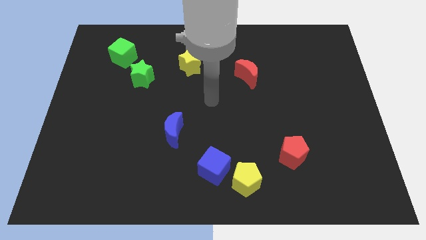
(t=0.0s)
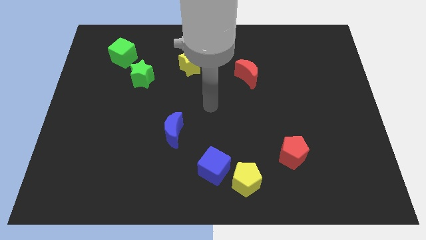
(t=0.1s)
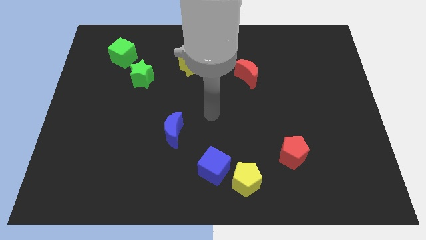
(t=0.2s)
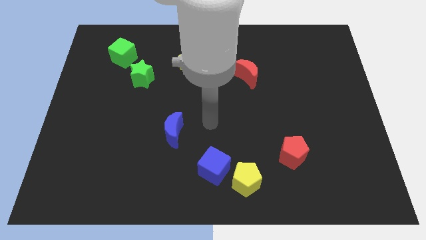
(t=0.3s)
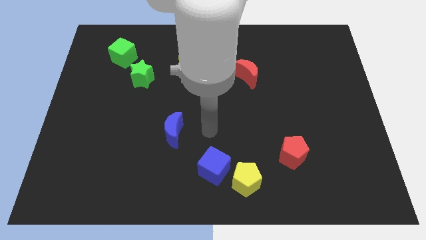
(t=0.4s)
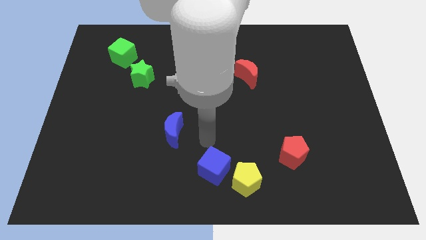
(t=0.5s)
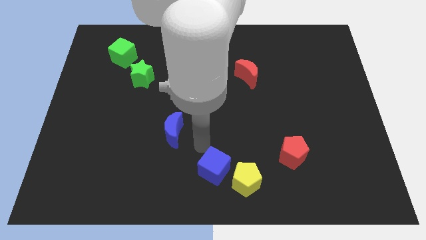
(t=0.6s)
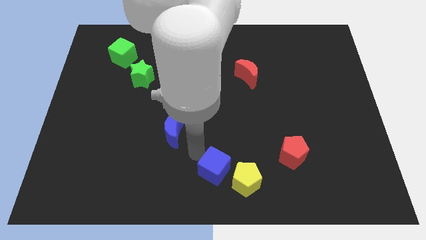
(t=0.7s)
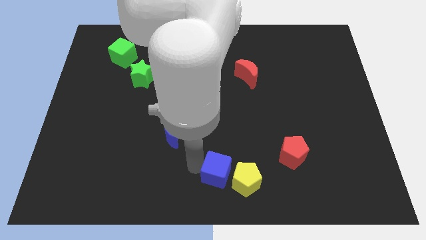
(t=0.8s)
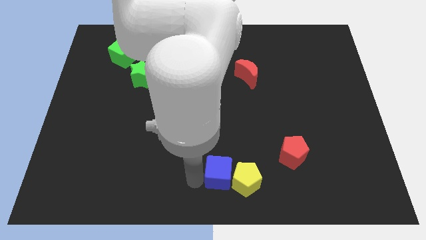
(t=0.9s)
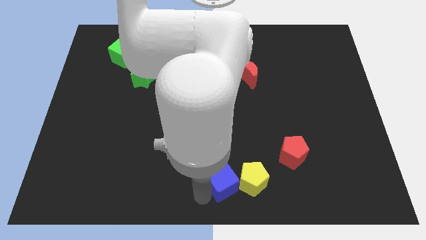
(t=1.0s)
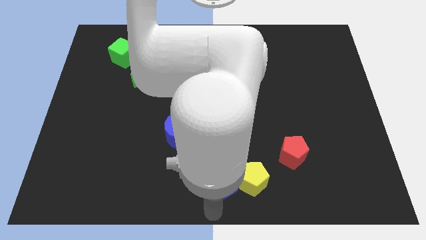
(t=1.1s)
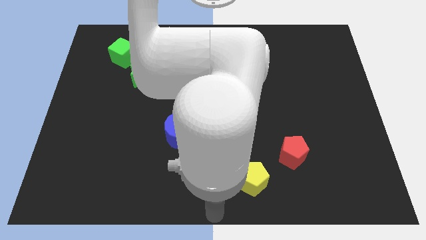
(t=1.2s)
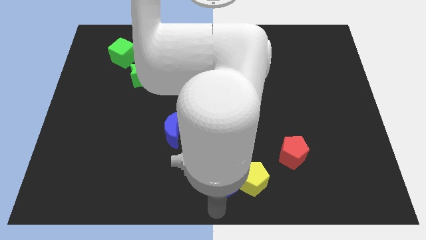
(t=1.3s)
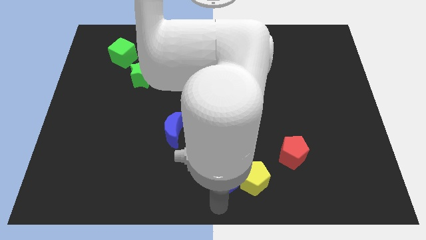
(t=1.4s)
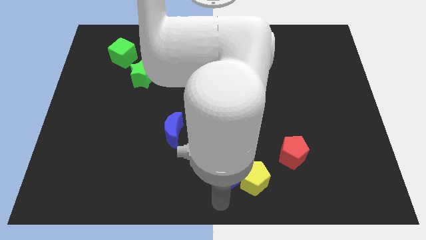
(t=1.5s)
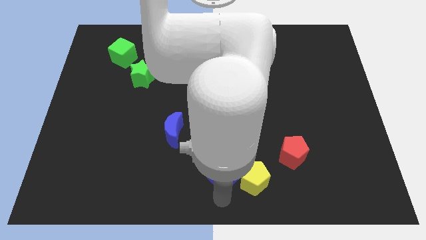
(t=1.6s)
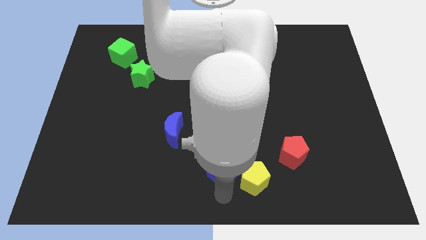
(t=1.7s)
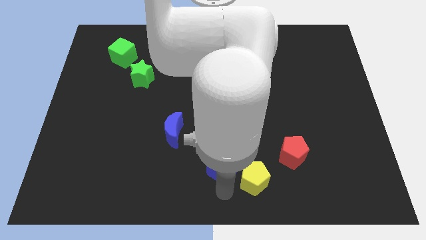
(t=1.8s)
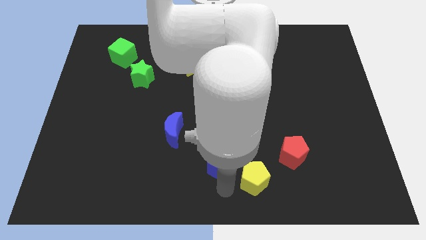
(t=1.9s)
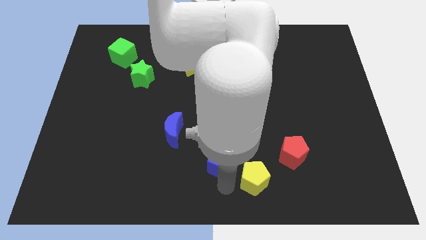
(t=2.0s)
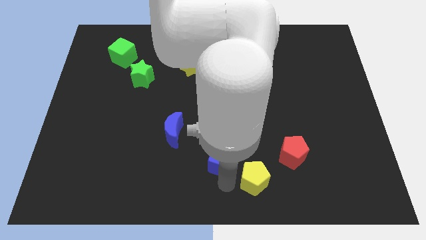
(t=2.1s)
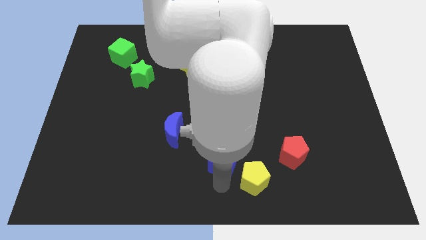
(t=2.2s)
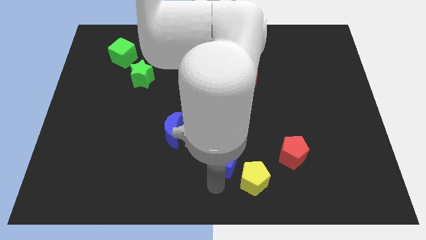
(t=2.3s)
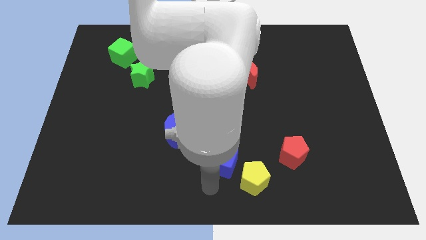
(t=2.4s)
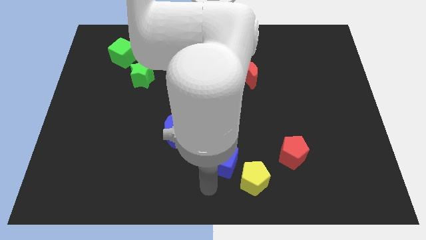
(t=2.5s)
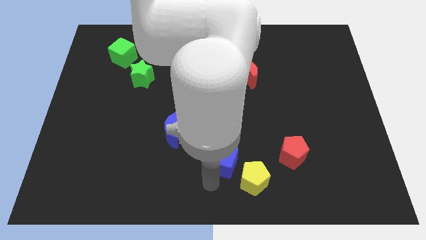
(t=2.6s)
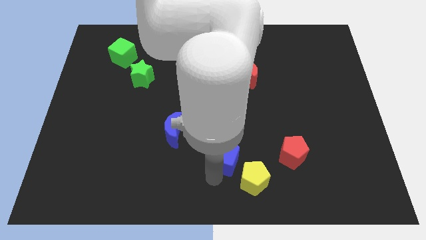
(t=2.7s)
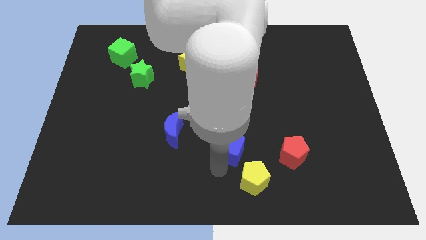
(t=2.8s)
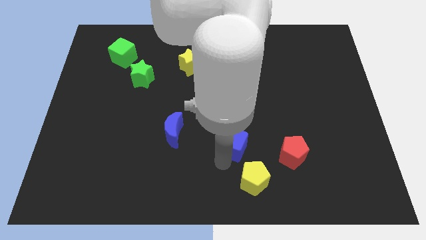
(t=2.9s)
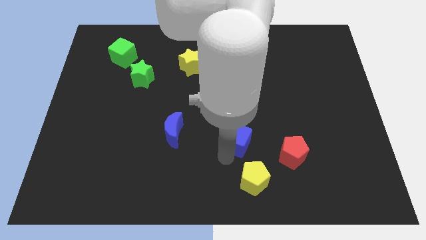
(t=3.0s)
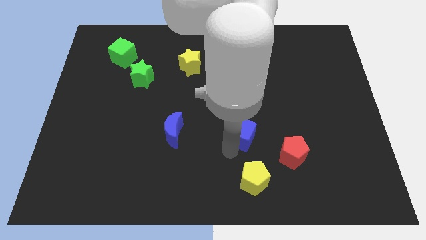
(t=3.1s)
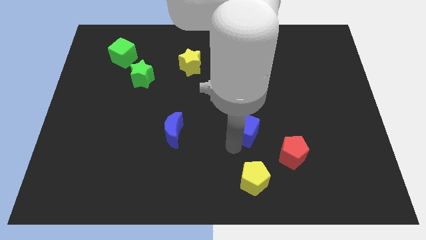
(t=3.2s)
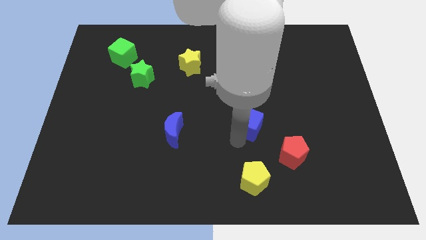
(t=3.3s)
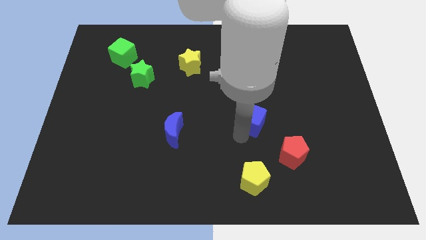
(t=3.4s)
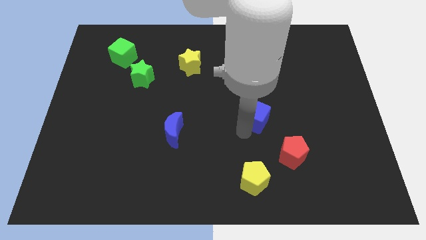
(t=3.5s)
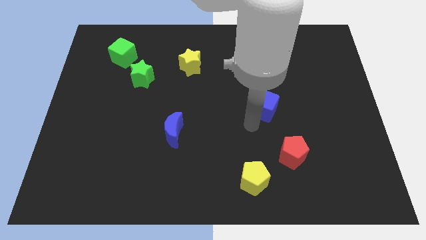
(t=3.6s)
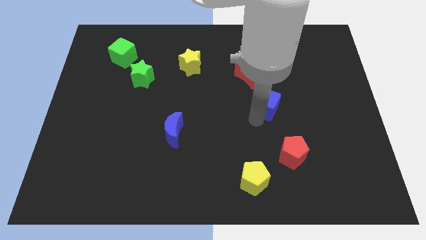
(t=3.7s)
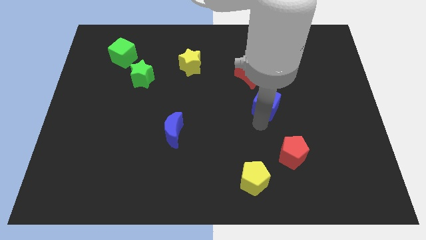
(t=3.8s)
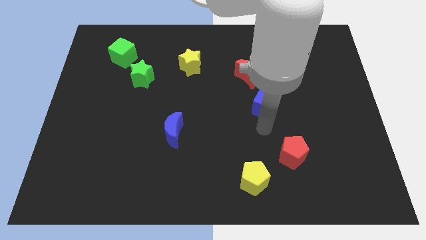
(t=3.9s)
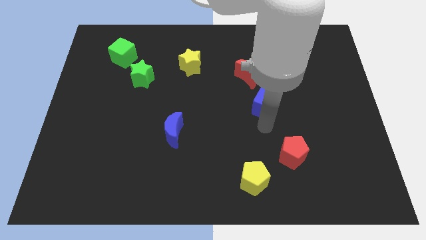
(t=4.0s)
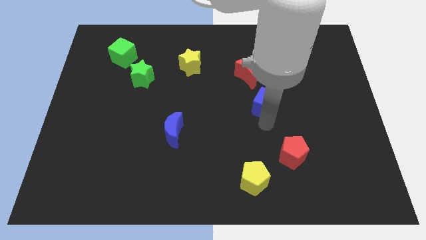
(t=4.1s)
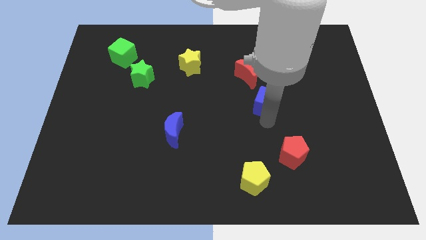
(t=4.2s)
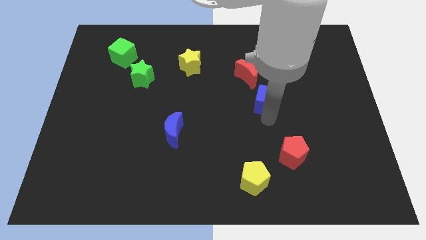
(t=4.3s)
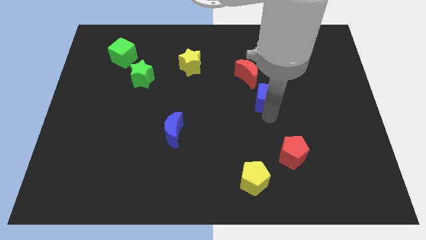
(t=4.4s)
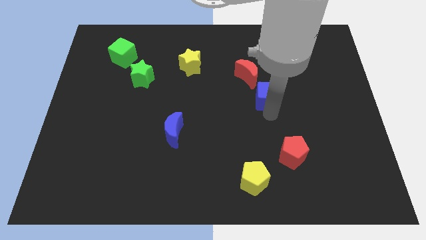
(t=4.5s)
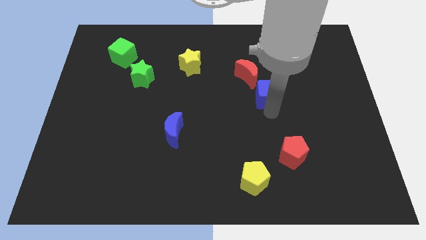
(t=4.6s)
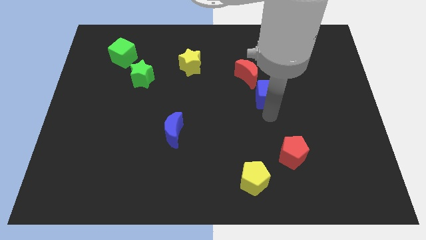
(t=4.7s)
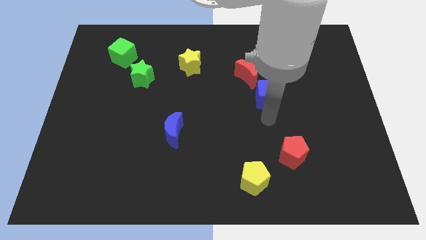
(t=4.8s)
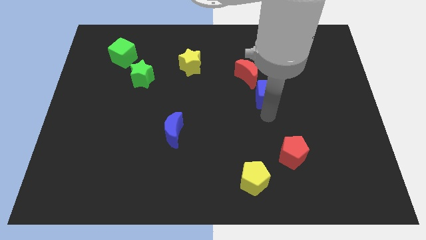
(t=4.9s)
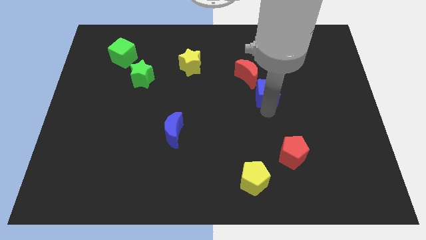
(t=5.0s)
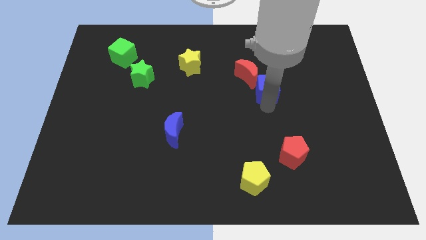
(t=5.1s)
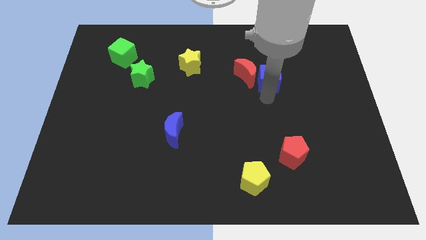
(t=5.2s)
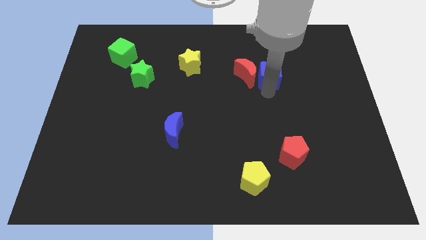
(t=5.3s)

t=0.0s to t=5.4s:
move the blue cube to the top right of the red moon

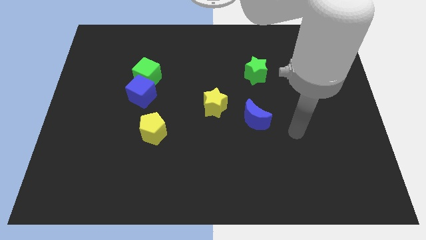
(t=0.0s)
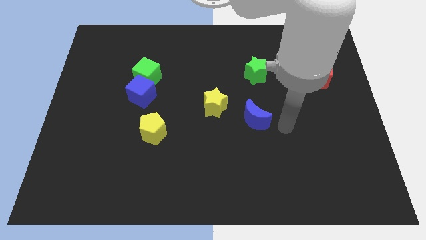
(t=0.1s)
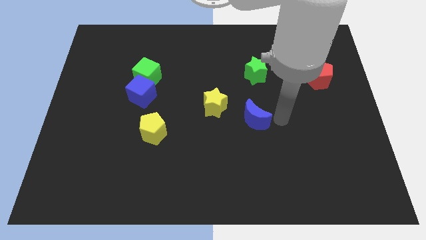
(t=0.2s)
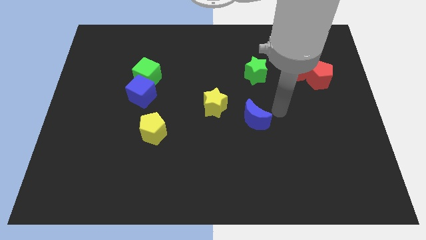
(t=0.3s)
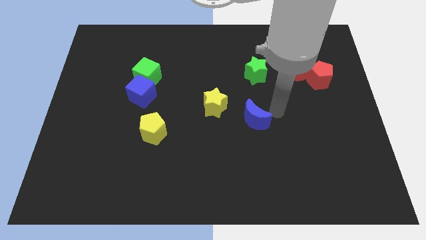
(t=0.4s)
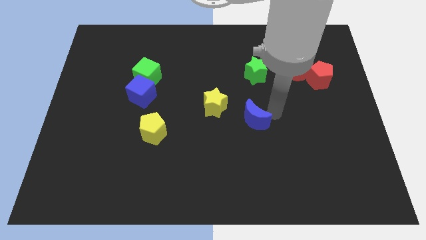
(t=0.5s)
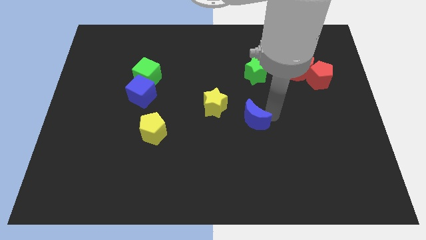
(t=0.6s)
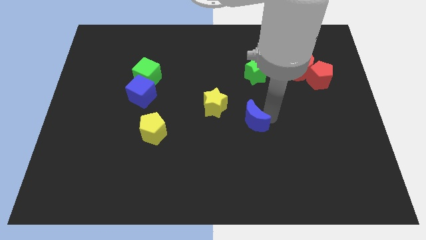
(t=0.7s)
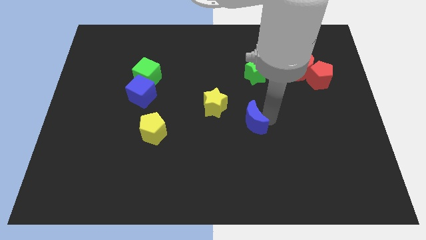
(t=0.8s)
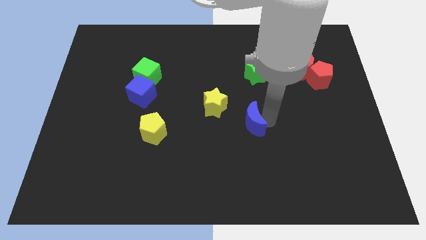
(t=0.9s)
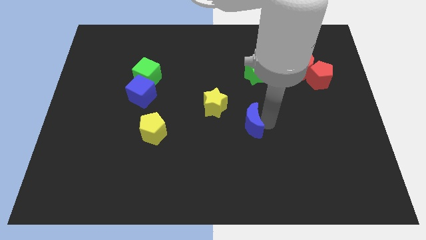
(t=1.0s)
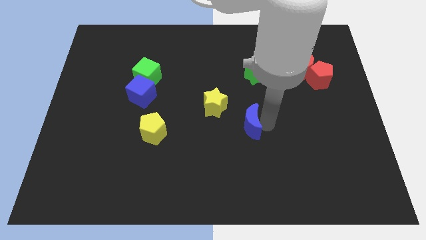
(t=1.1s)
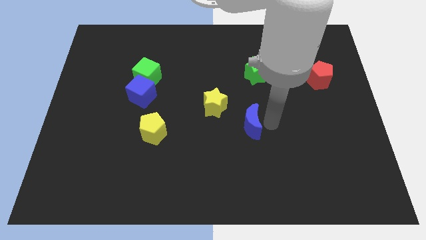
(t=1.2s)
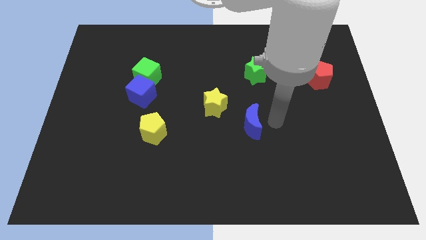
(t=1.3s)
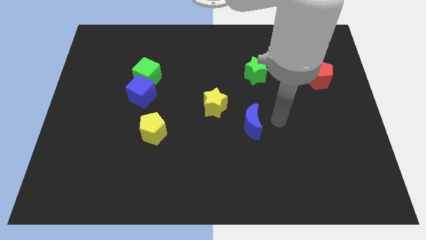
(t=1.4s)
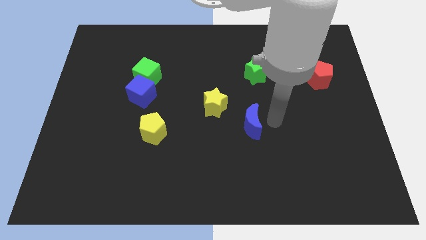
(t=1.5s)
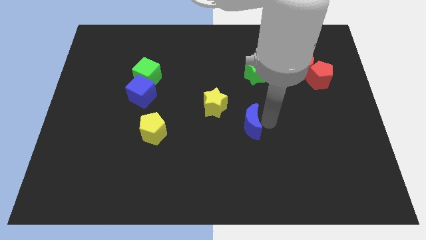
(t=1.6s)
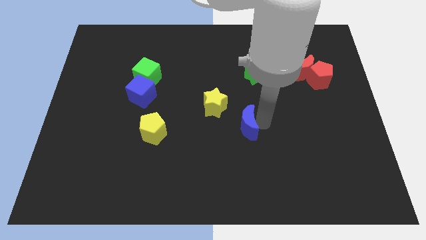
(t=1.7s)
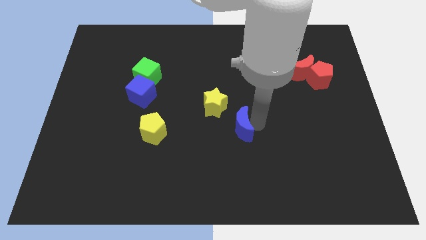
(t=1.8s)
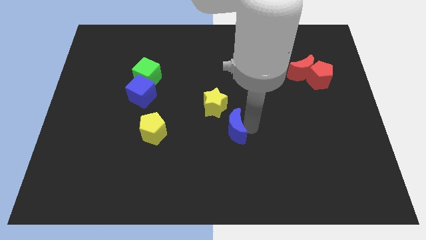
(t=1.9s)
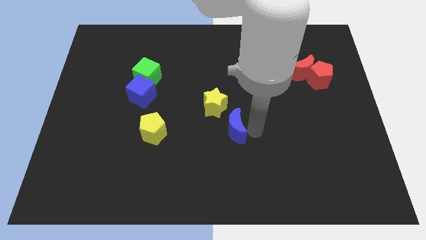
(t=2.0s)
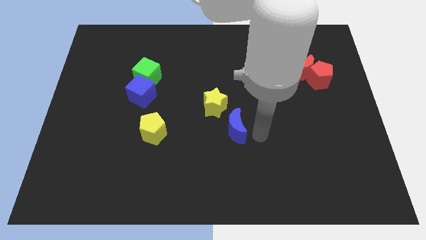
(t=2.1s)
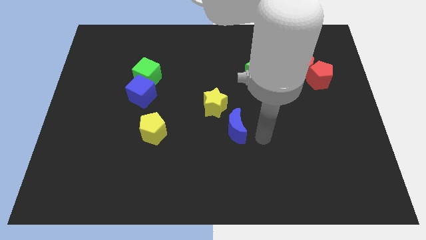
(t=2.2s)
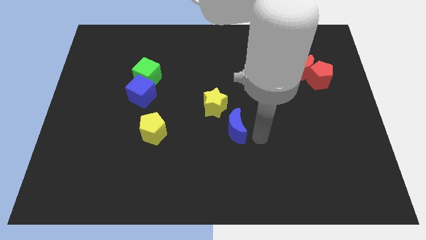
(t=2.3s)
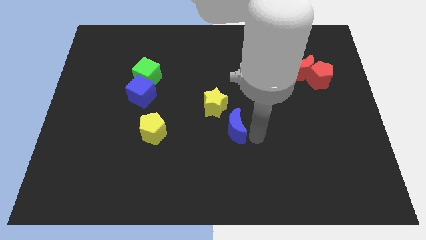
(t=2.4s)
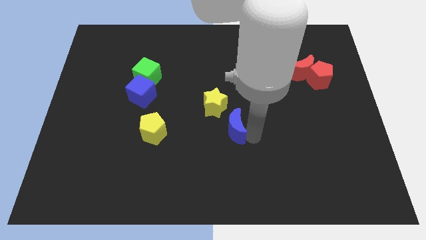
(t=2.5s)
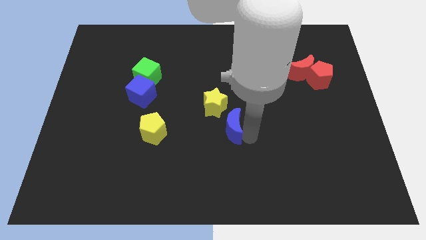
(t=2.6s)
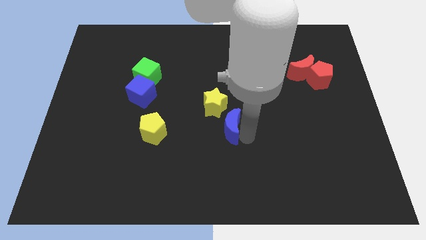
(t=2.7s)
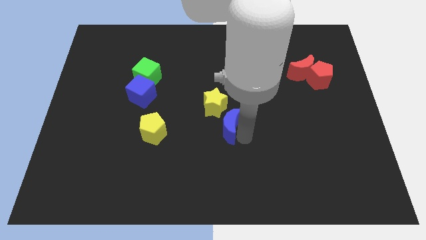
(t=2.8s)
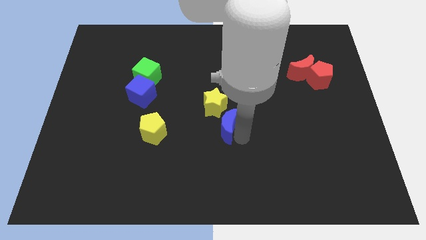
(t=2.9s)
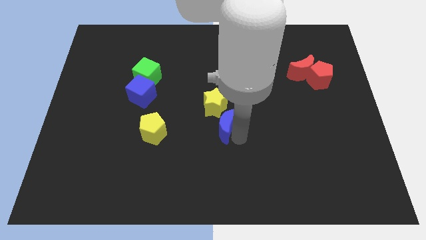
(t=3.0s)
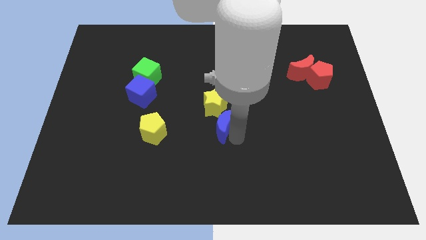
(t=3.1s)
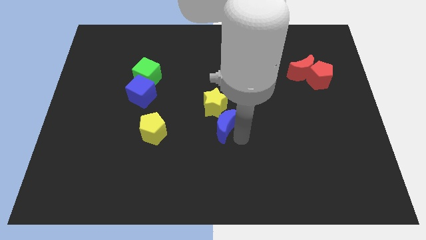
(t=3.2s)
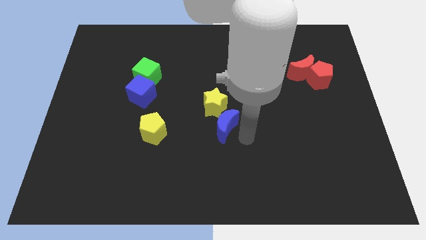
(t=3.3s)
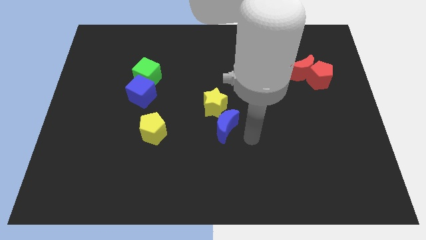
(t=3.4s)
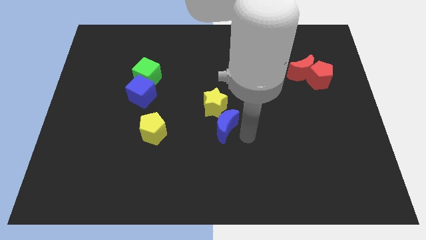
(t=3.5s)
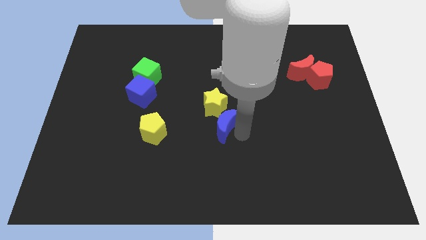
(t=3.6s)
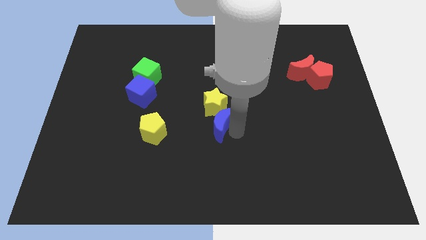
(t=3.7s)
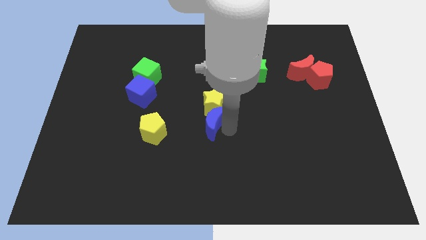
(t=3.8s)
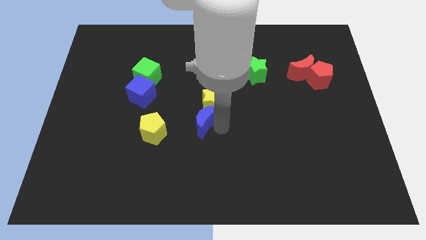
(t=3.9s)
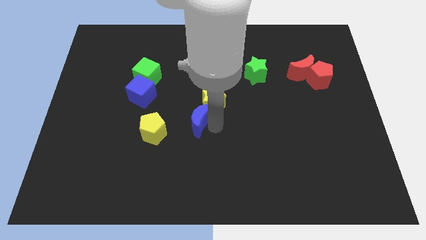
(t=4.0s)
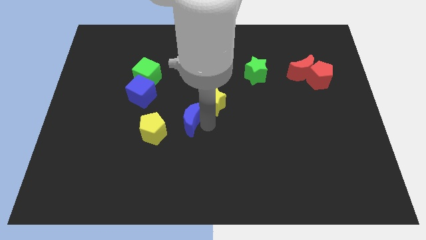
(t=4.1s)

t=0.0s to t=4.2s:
put the blue moon diagonally up and to the right of the yellow pentagon
